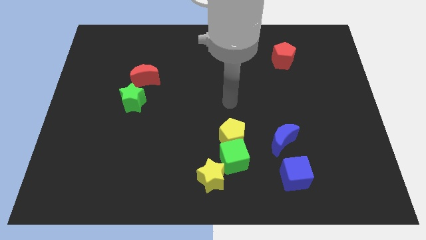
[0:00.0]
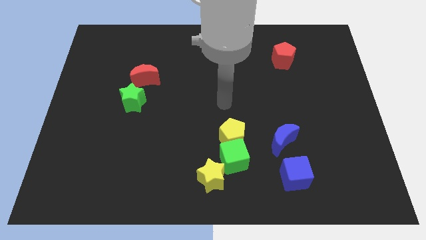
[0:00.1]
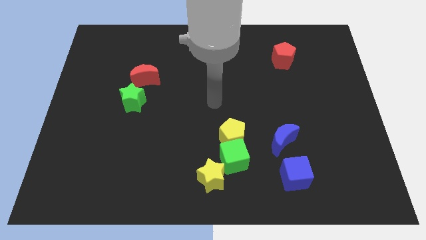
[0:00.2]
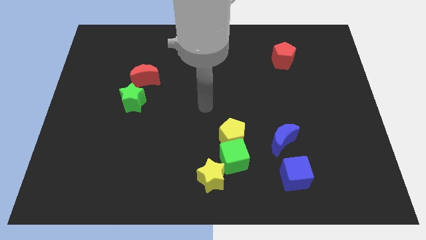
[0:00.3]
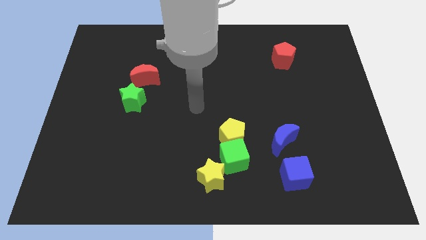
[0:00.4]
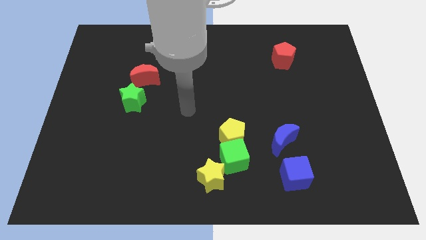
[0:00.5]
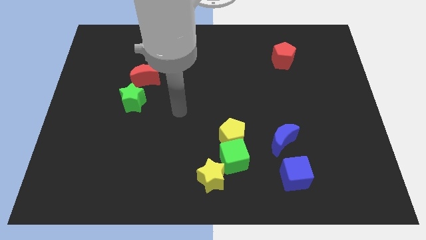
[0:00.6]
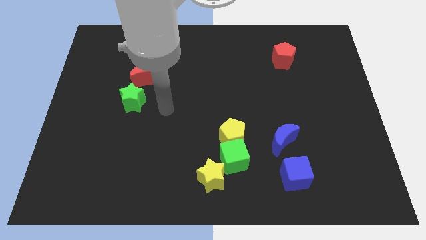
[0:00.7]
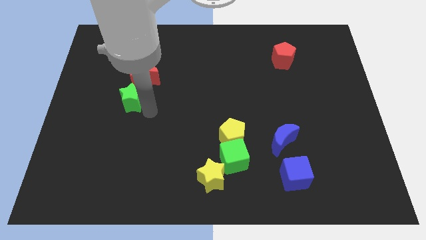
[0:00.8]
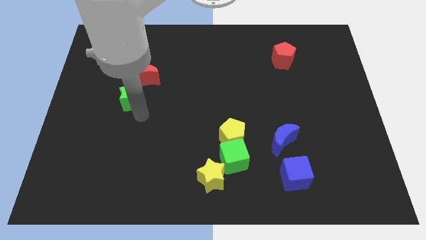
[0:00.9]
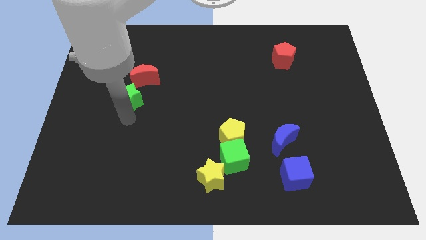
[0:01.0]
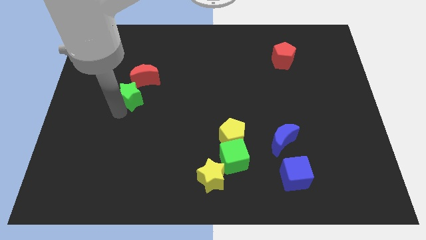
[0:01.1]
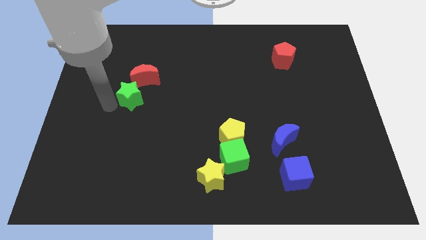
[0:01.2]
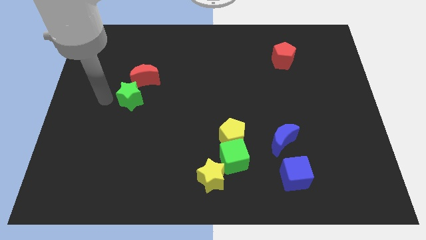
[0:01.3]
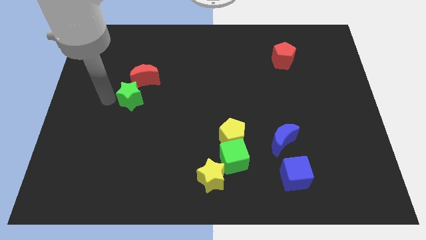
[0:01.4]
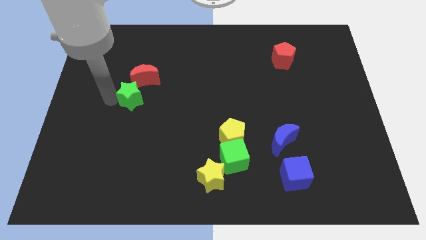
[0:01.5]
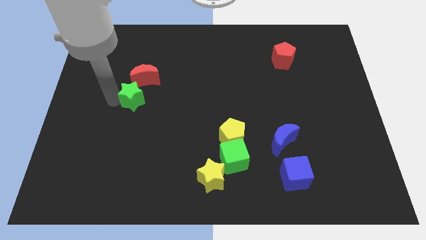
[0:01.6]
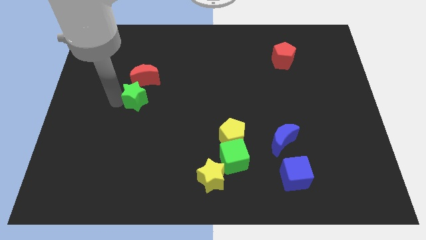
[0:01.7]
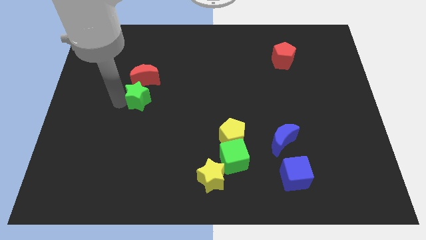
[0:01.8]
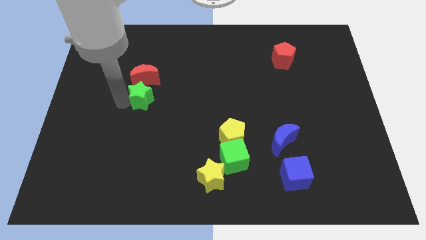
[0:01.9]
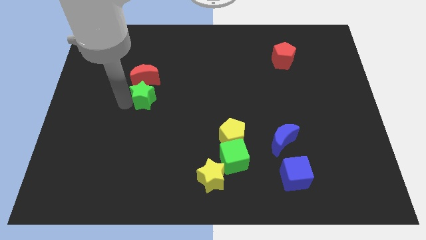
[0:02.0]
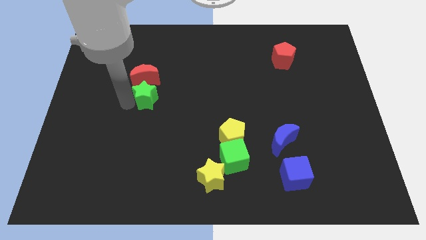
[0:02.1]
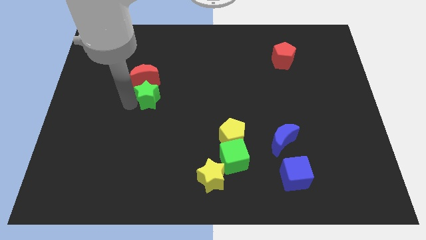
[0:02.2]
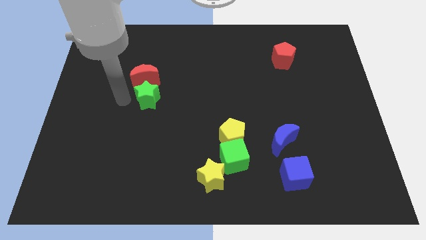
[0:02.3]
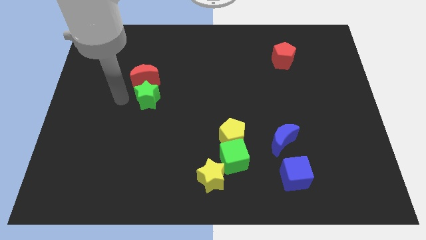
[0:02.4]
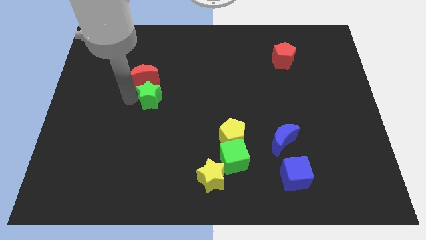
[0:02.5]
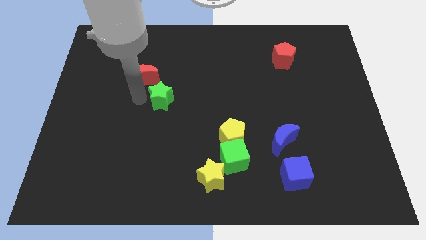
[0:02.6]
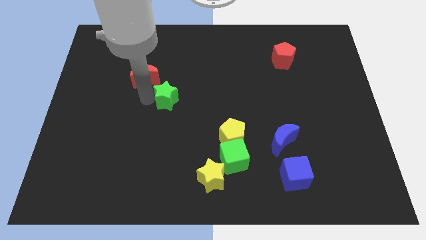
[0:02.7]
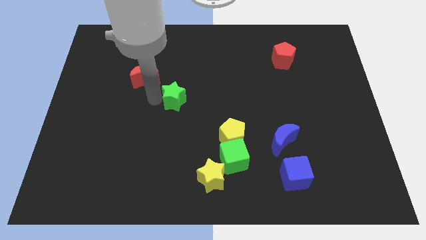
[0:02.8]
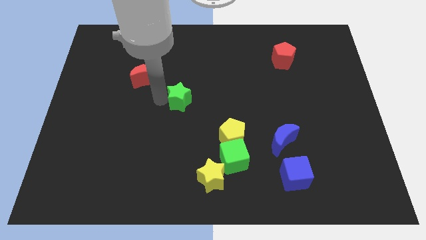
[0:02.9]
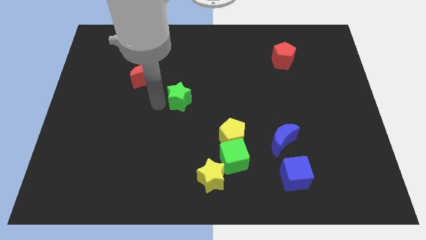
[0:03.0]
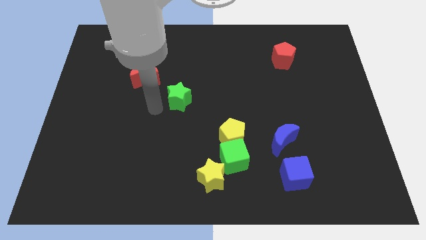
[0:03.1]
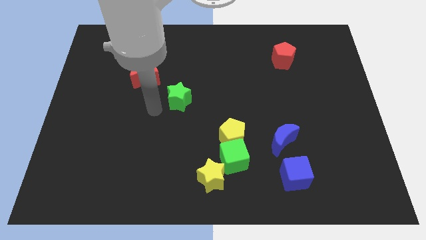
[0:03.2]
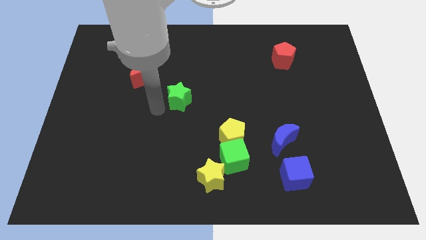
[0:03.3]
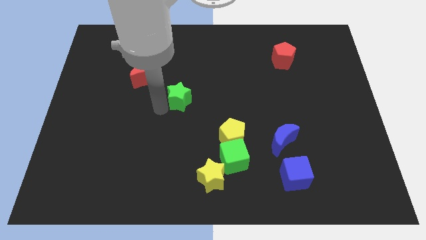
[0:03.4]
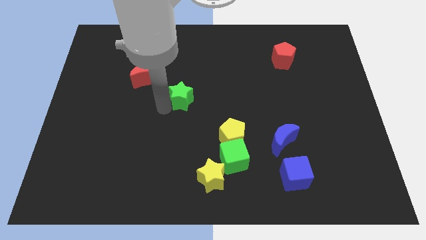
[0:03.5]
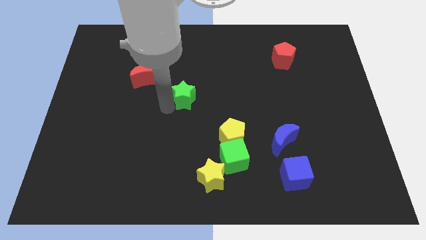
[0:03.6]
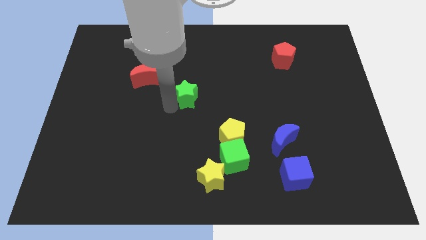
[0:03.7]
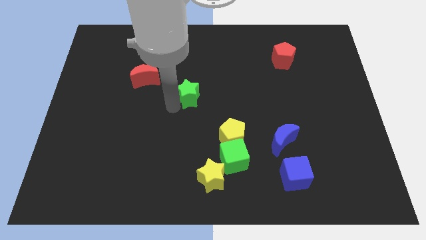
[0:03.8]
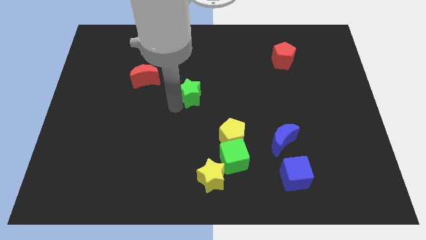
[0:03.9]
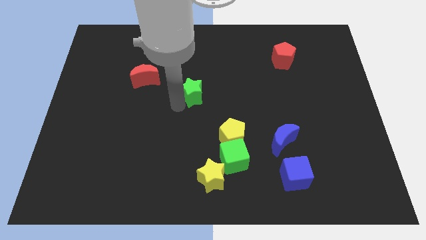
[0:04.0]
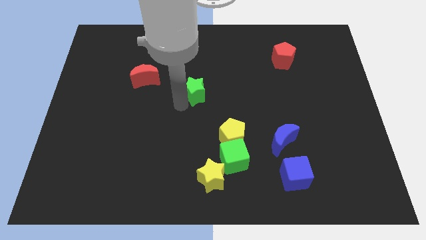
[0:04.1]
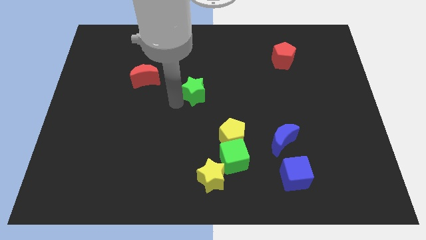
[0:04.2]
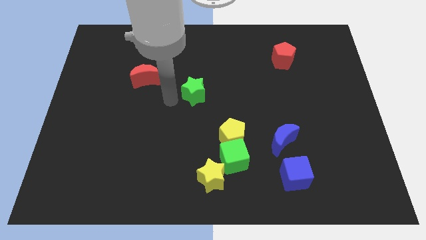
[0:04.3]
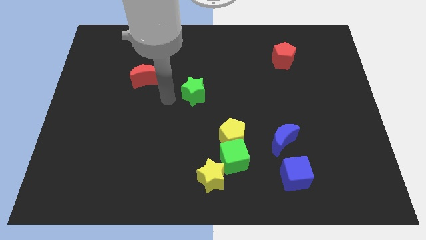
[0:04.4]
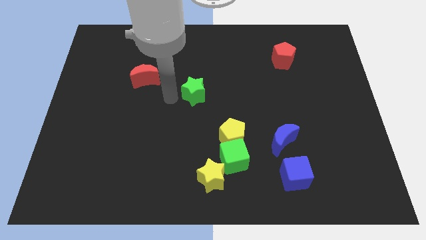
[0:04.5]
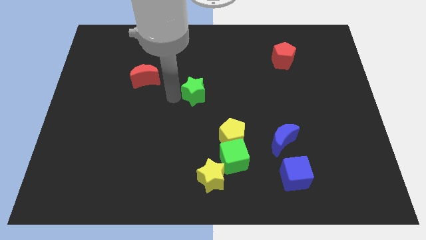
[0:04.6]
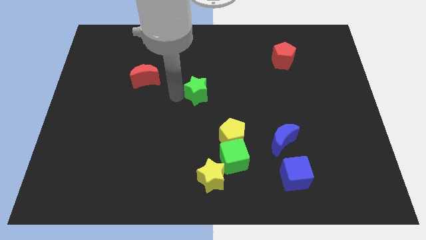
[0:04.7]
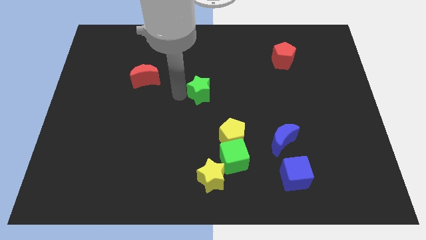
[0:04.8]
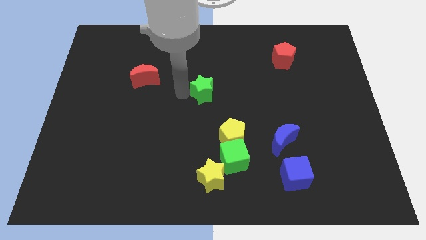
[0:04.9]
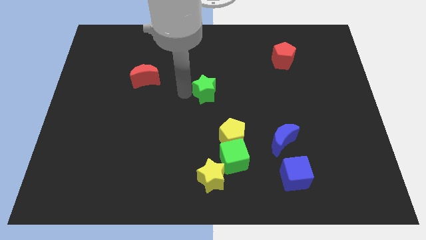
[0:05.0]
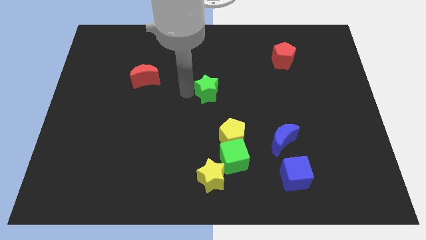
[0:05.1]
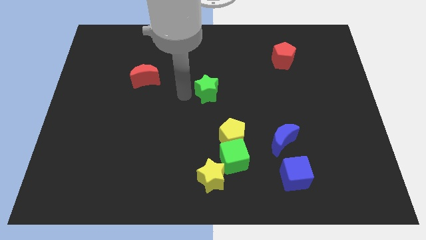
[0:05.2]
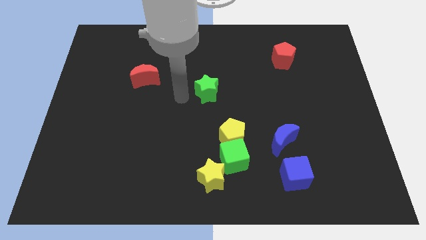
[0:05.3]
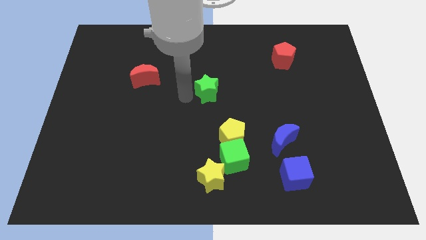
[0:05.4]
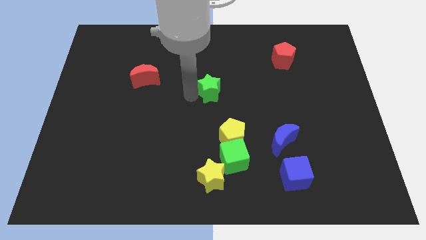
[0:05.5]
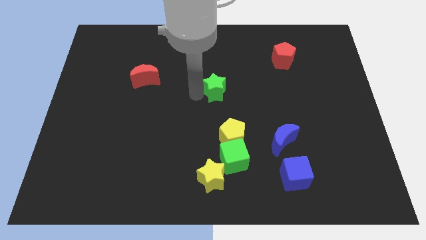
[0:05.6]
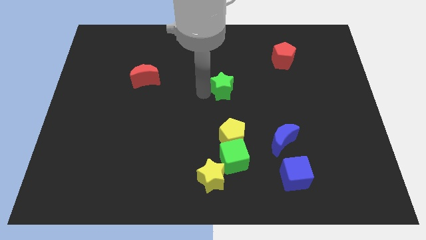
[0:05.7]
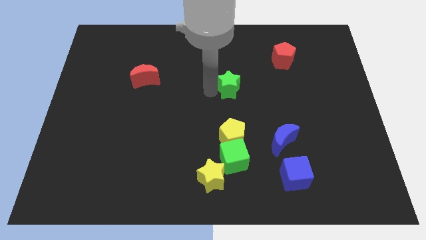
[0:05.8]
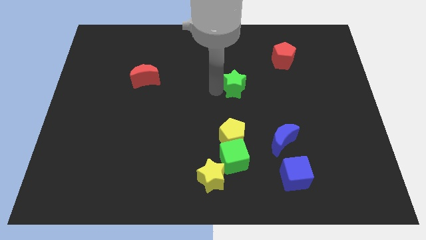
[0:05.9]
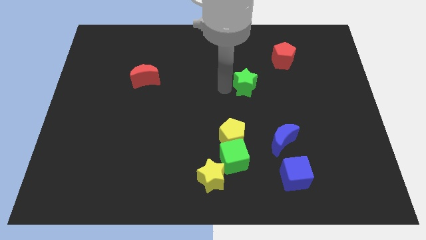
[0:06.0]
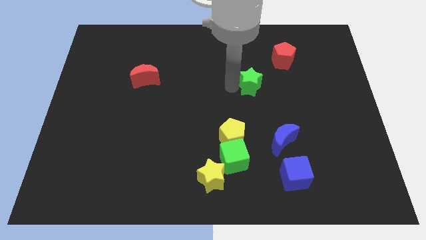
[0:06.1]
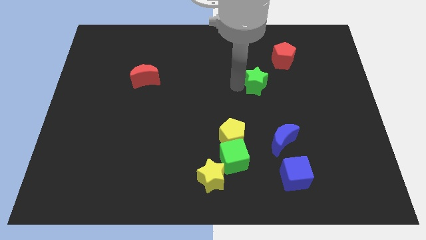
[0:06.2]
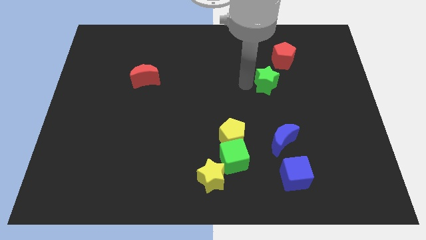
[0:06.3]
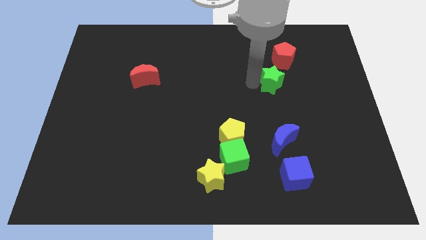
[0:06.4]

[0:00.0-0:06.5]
push the green star to the bottom side of the red pentagon

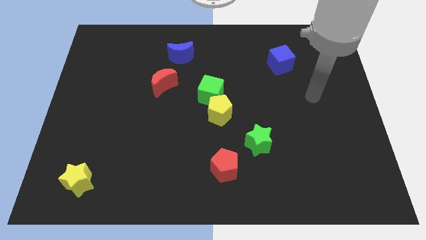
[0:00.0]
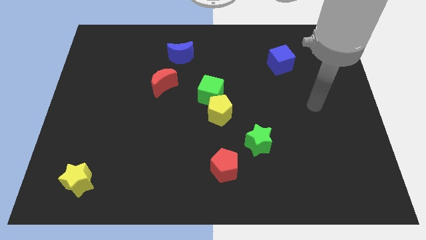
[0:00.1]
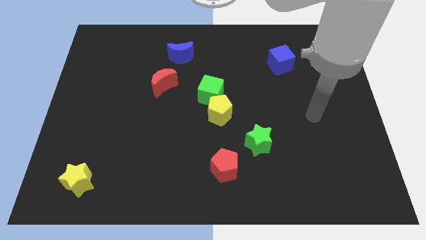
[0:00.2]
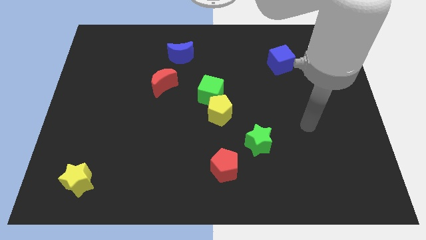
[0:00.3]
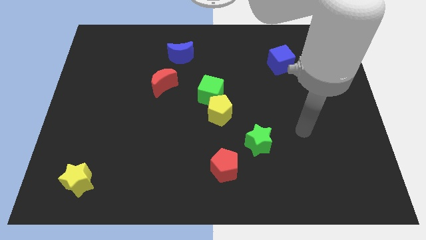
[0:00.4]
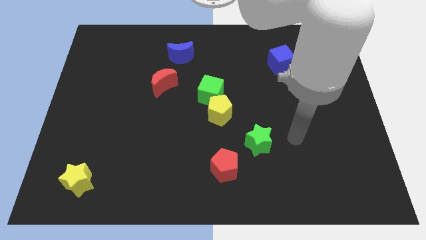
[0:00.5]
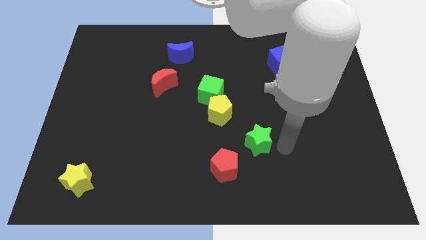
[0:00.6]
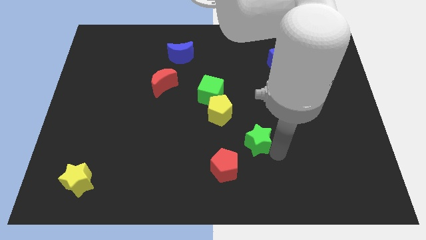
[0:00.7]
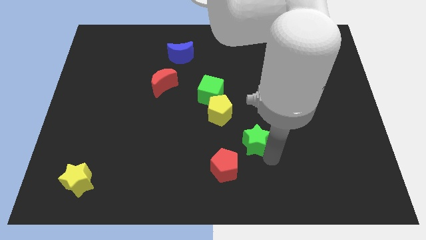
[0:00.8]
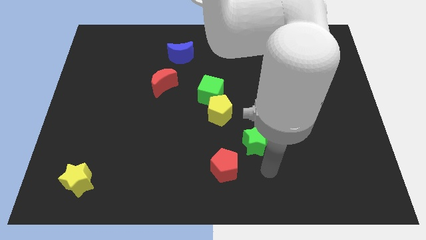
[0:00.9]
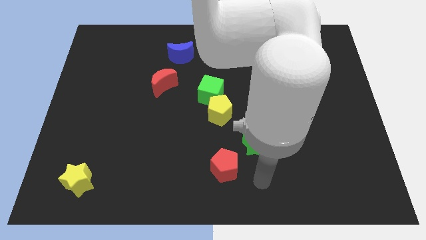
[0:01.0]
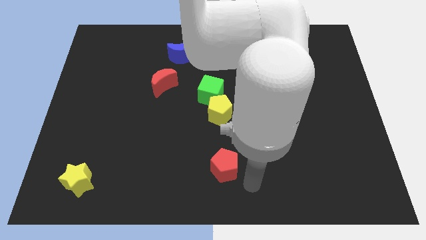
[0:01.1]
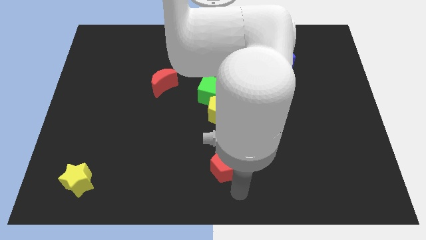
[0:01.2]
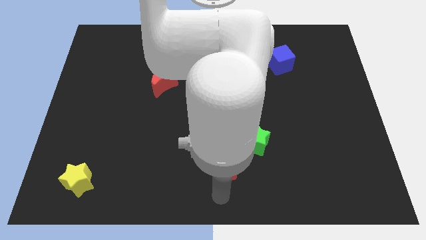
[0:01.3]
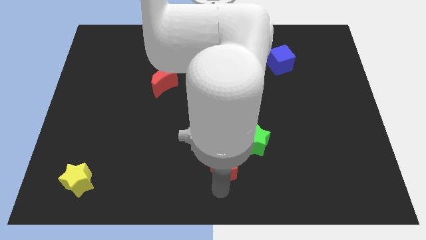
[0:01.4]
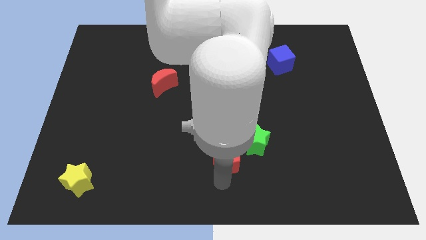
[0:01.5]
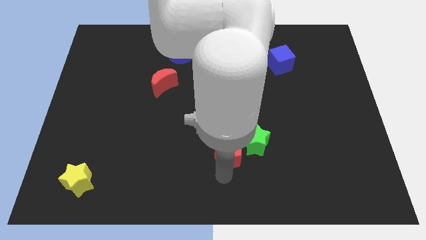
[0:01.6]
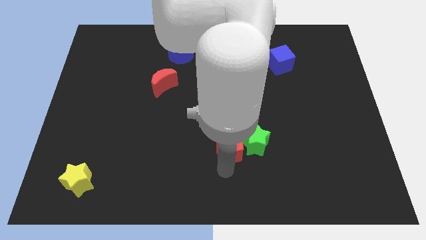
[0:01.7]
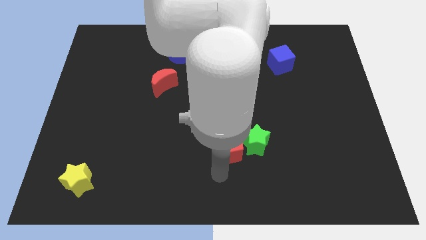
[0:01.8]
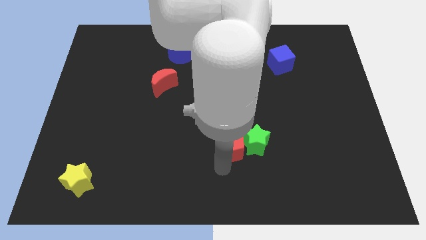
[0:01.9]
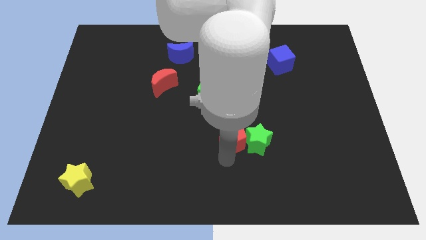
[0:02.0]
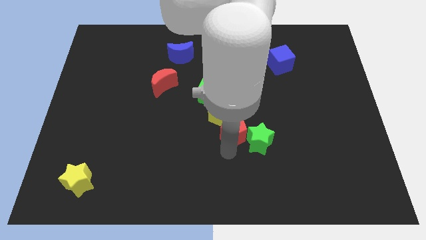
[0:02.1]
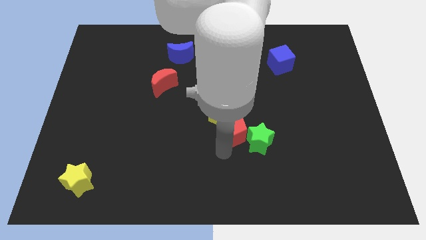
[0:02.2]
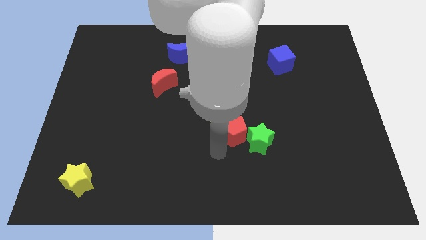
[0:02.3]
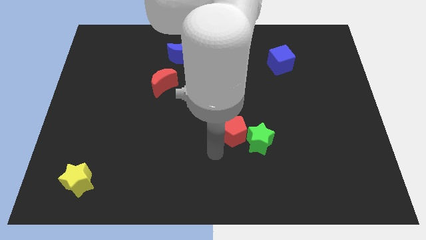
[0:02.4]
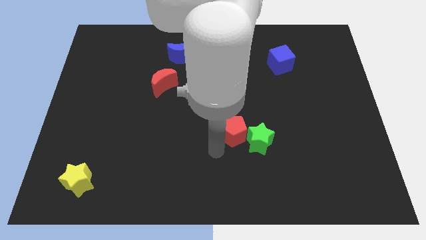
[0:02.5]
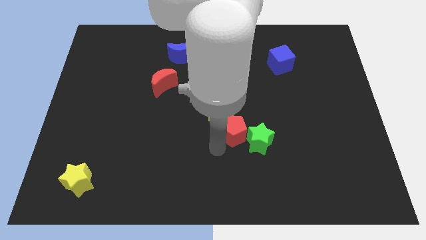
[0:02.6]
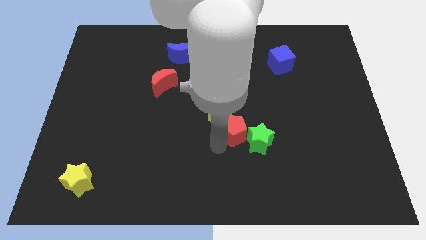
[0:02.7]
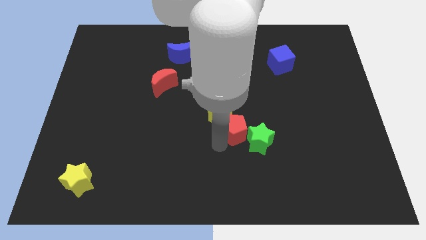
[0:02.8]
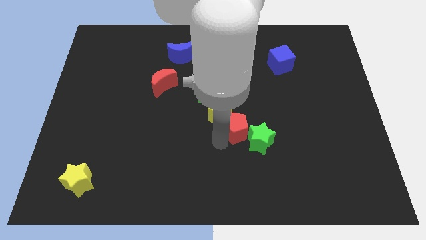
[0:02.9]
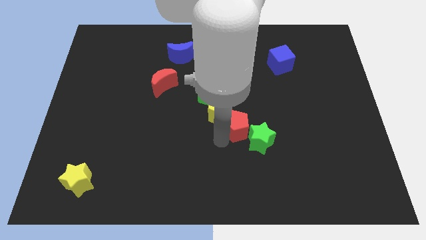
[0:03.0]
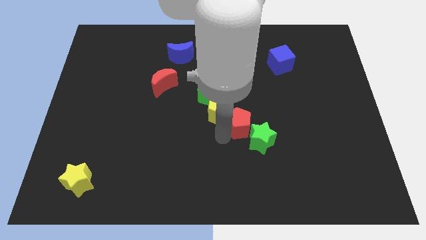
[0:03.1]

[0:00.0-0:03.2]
move the red pentagon to the top side of the green star
